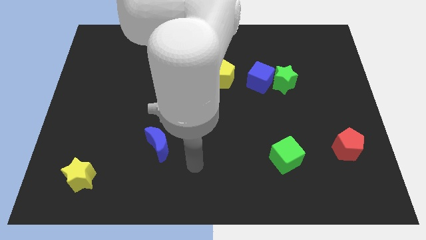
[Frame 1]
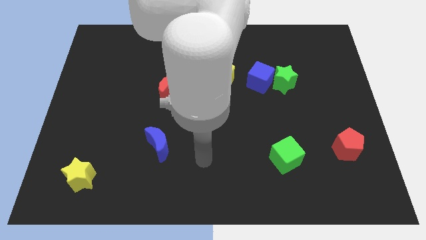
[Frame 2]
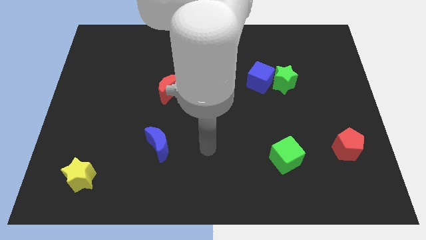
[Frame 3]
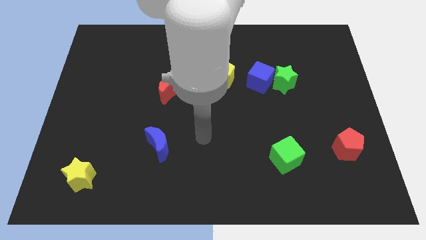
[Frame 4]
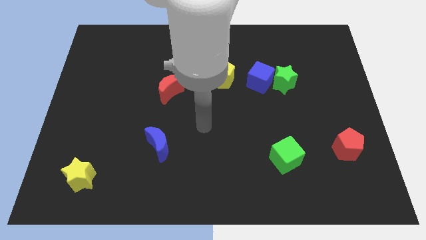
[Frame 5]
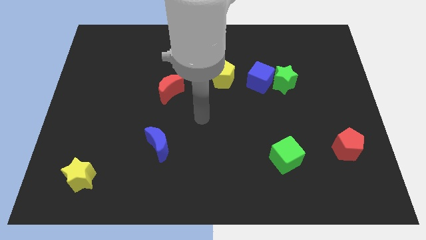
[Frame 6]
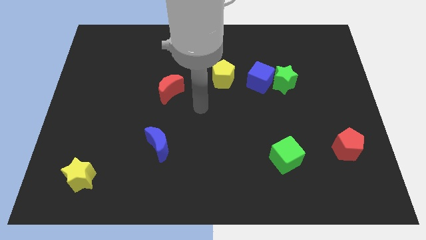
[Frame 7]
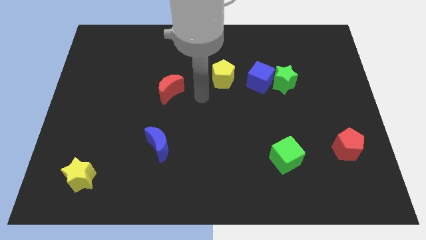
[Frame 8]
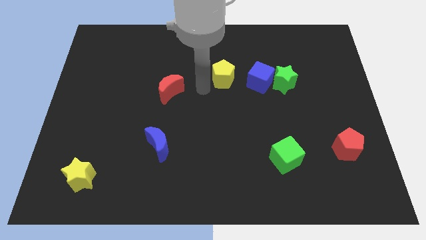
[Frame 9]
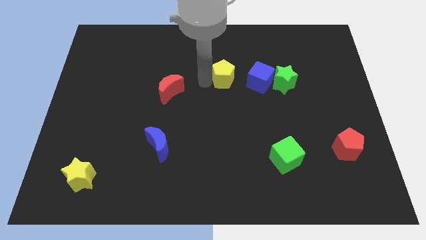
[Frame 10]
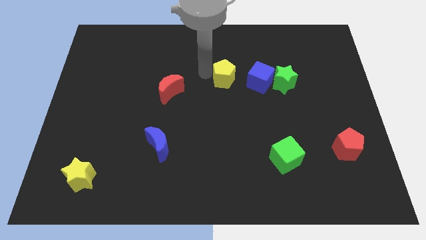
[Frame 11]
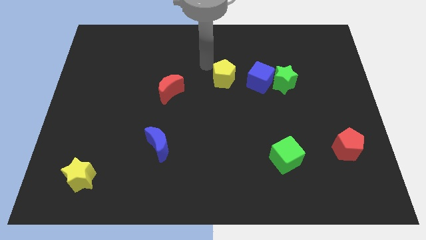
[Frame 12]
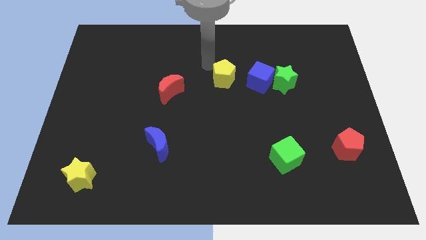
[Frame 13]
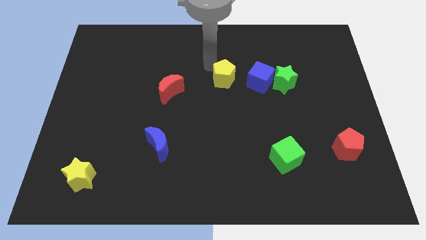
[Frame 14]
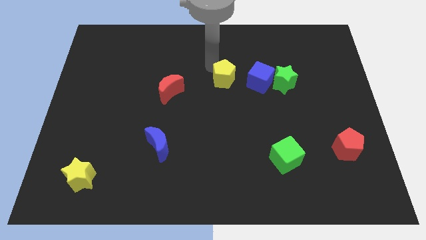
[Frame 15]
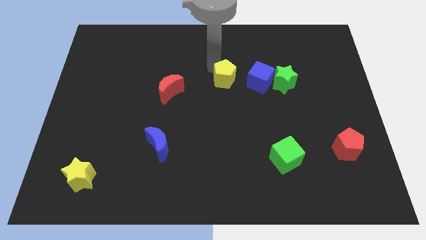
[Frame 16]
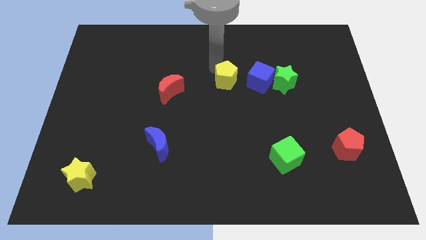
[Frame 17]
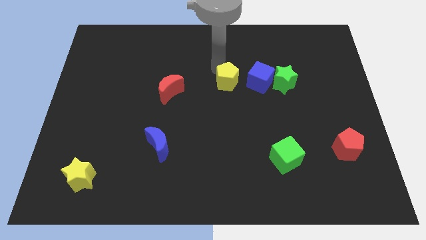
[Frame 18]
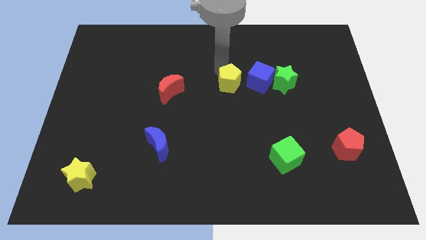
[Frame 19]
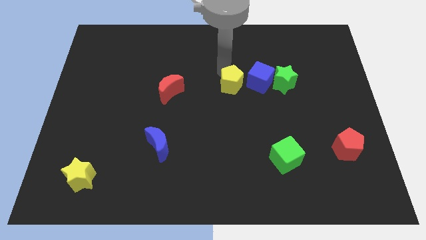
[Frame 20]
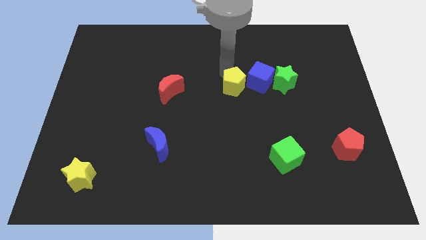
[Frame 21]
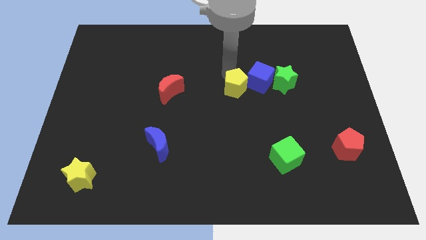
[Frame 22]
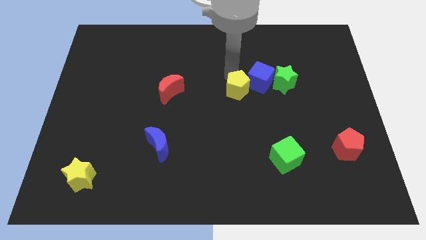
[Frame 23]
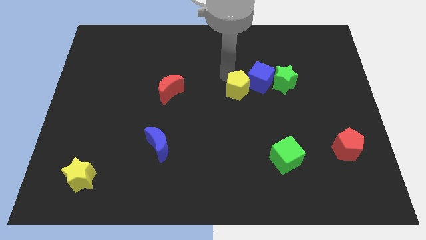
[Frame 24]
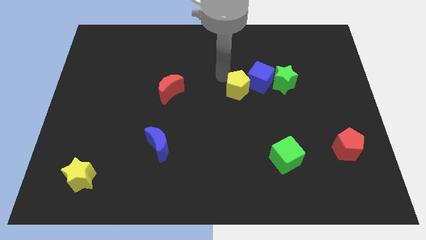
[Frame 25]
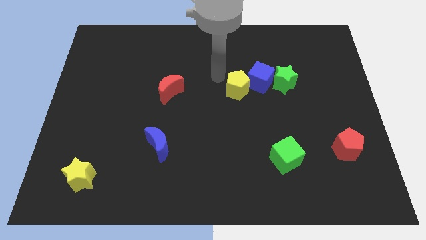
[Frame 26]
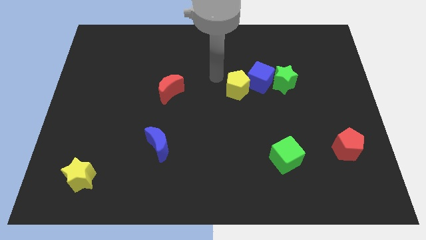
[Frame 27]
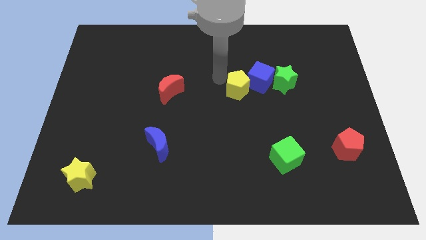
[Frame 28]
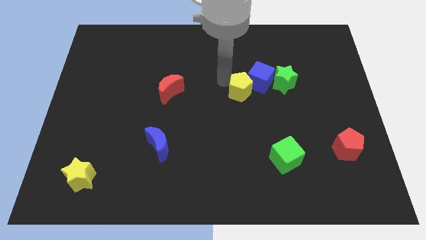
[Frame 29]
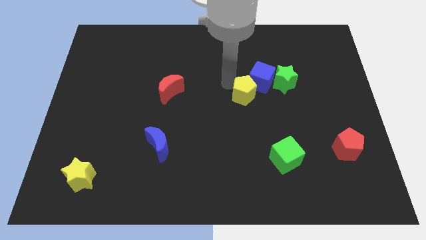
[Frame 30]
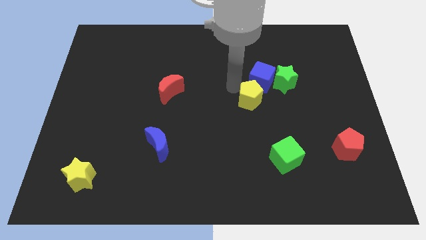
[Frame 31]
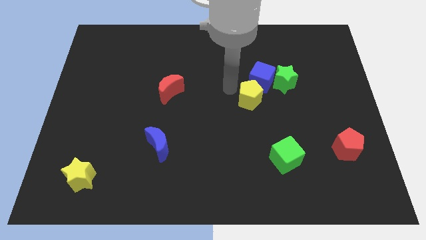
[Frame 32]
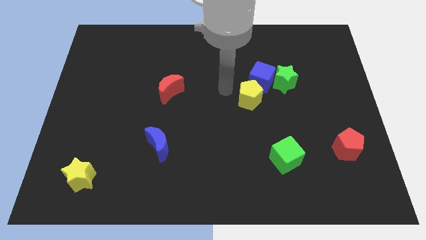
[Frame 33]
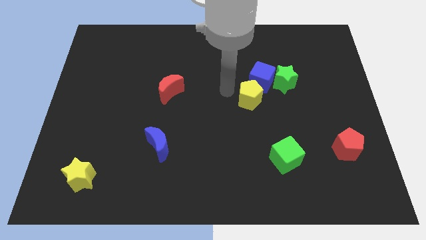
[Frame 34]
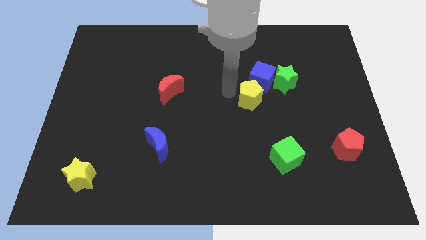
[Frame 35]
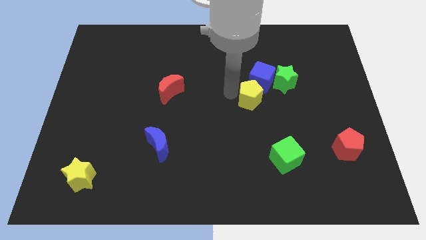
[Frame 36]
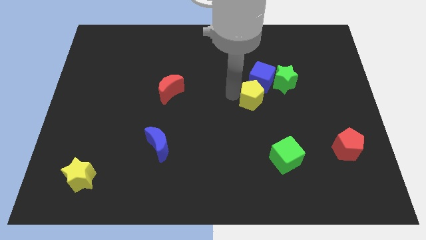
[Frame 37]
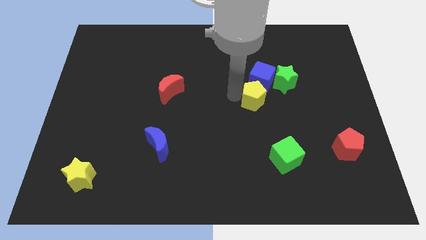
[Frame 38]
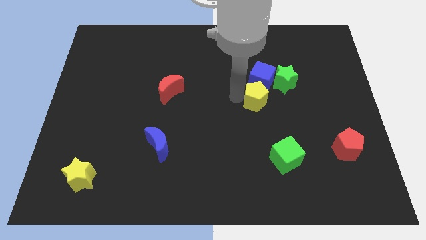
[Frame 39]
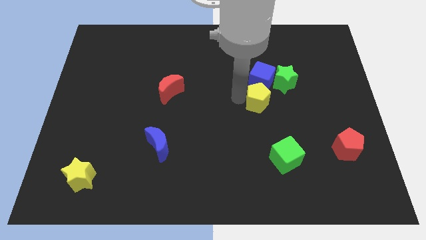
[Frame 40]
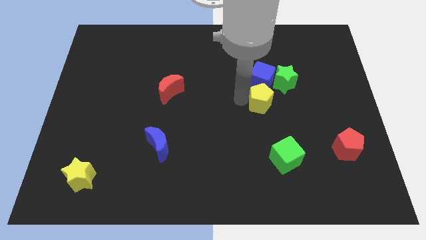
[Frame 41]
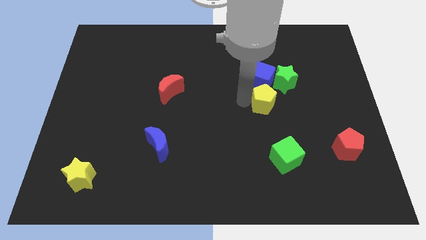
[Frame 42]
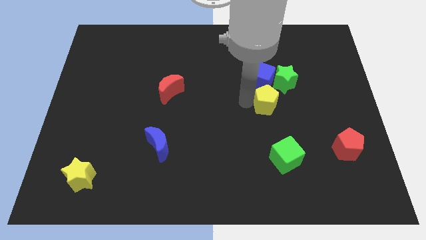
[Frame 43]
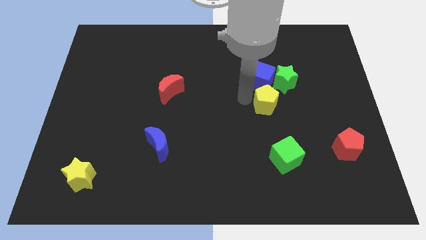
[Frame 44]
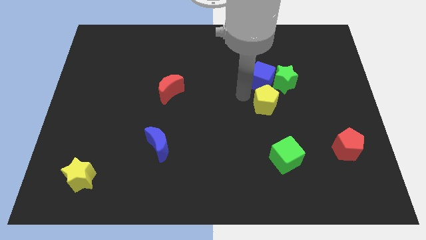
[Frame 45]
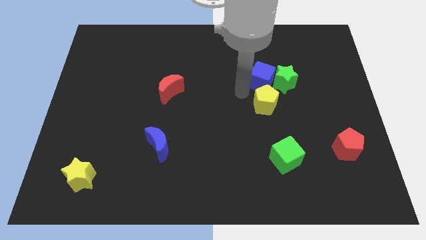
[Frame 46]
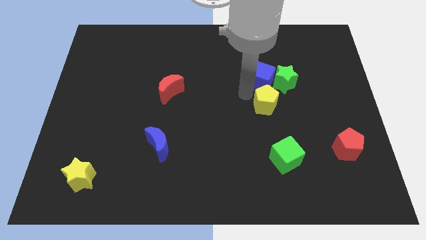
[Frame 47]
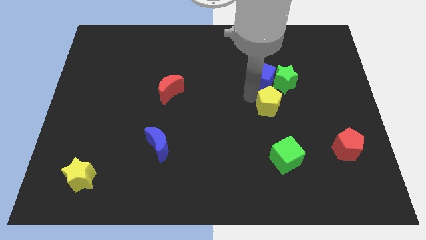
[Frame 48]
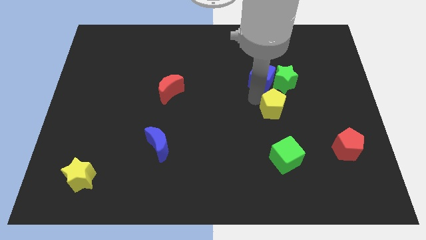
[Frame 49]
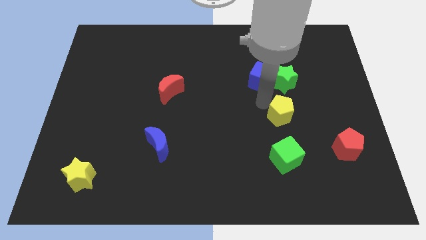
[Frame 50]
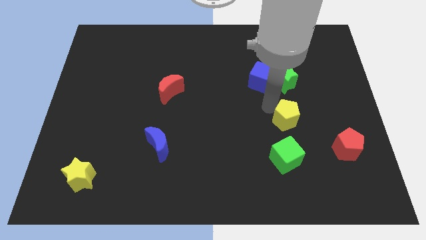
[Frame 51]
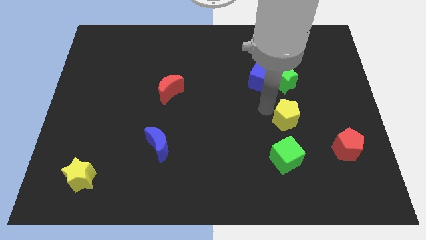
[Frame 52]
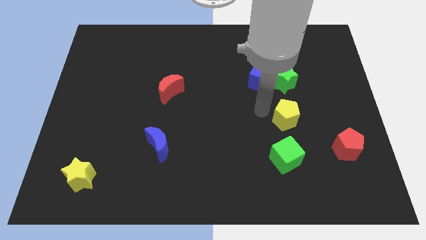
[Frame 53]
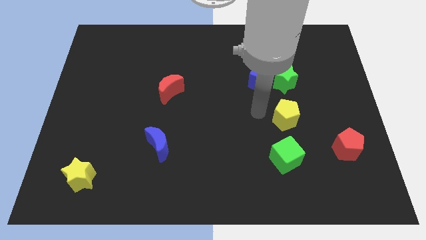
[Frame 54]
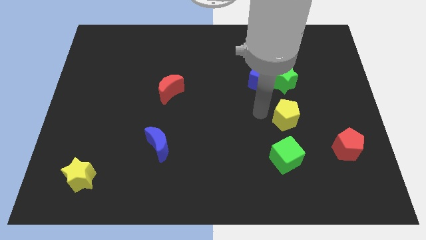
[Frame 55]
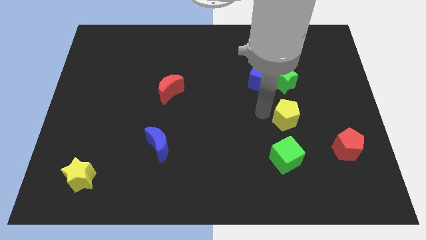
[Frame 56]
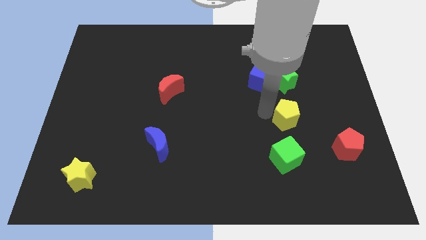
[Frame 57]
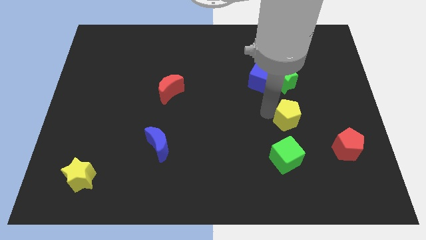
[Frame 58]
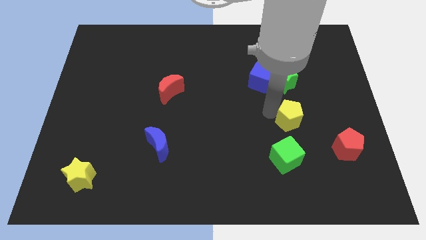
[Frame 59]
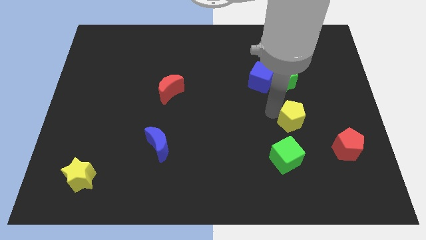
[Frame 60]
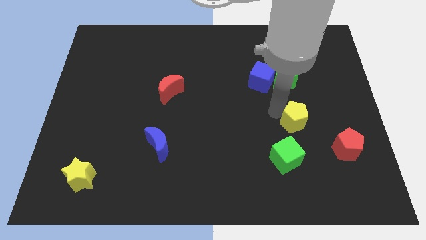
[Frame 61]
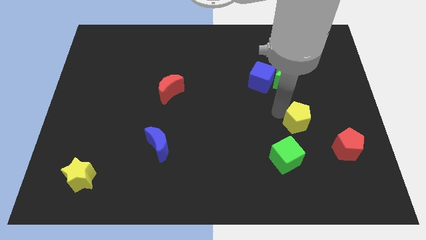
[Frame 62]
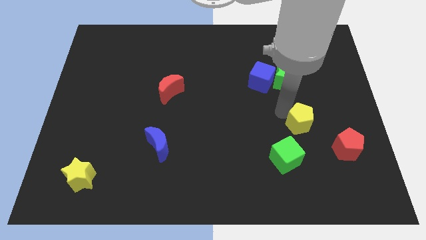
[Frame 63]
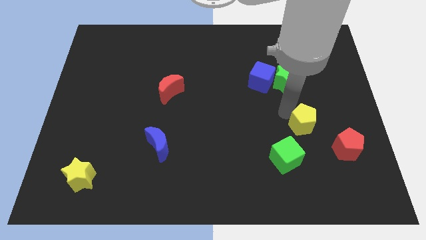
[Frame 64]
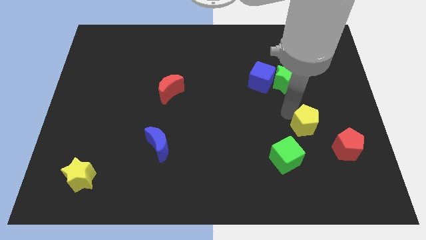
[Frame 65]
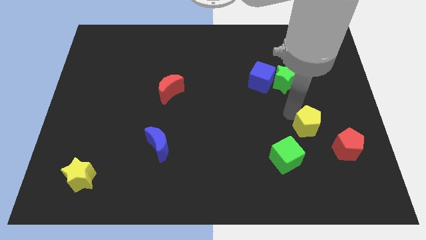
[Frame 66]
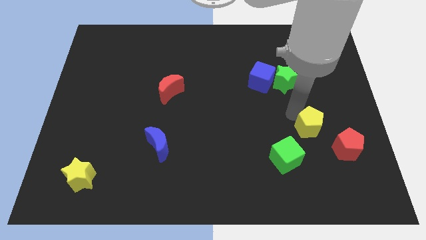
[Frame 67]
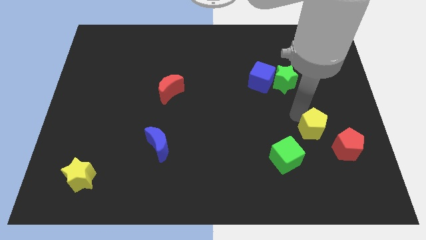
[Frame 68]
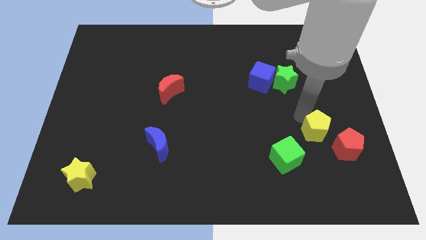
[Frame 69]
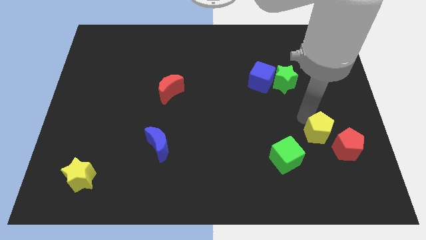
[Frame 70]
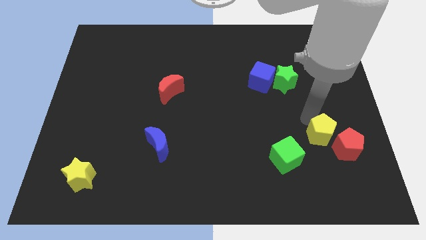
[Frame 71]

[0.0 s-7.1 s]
slide the yellow pentagon next to the red pentagon
